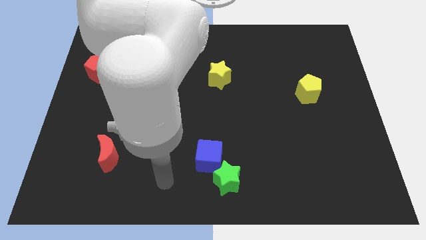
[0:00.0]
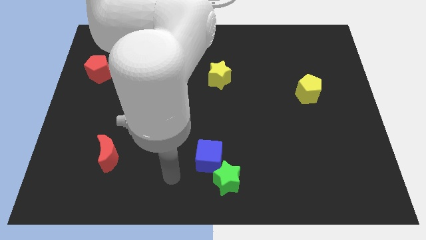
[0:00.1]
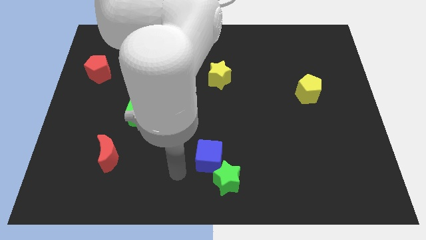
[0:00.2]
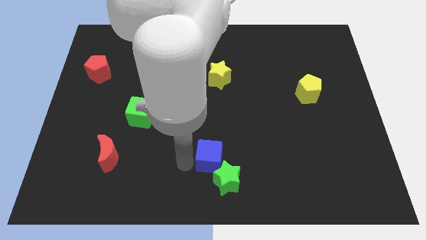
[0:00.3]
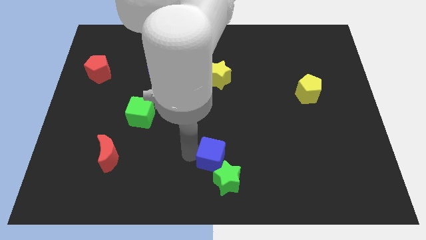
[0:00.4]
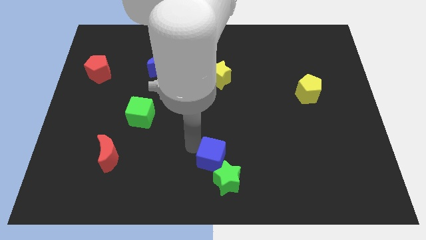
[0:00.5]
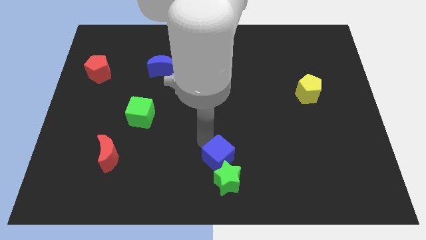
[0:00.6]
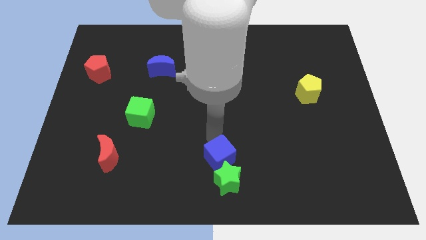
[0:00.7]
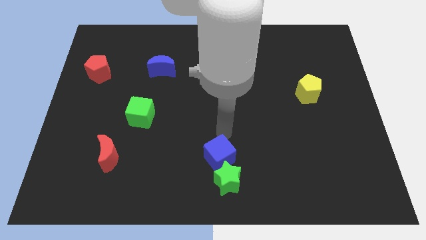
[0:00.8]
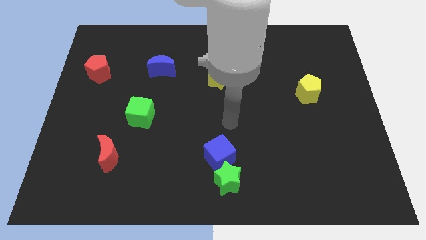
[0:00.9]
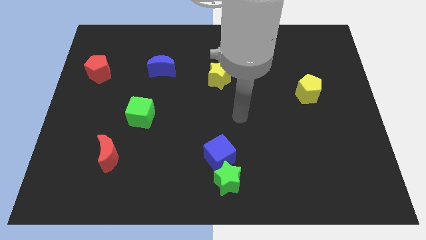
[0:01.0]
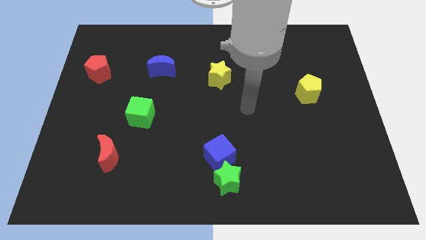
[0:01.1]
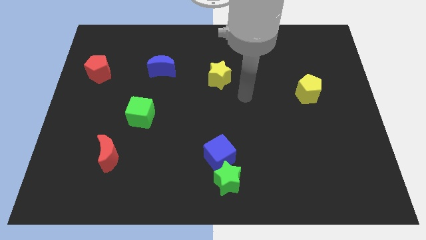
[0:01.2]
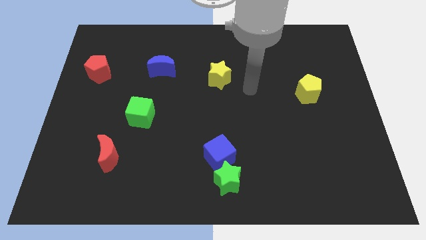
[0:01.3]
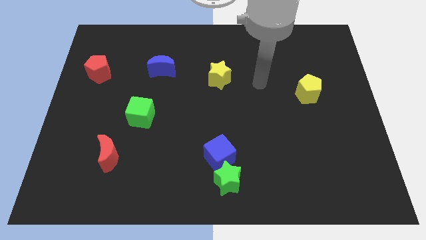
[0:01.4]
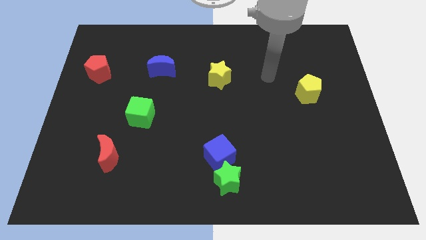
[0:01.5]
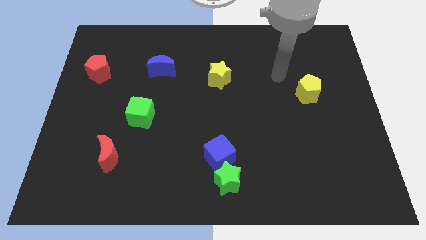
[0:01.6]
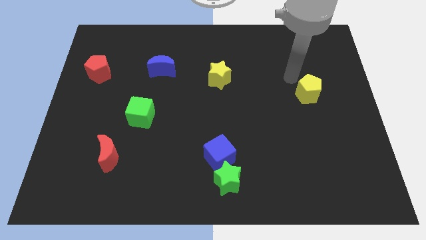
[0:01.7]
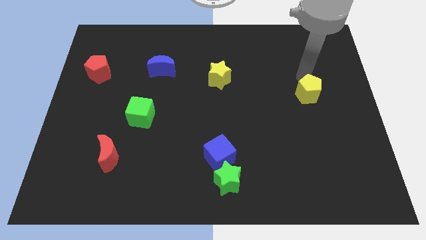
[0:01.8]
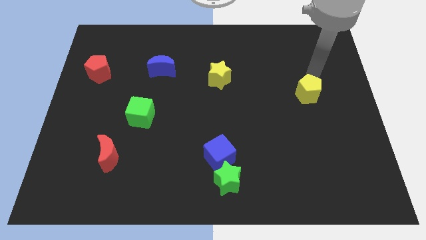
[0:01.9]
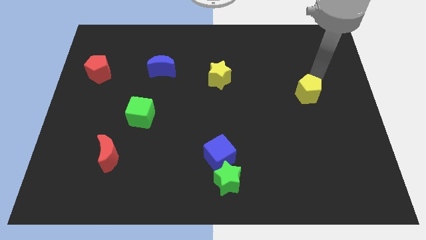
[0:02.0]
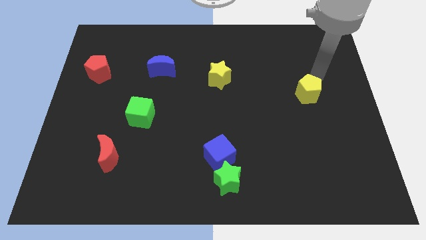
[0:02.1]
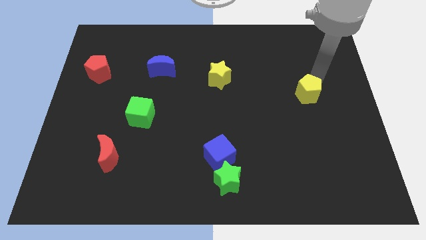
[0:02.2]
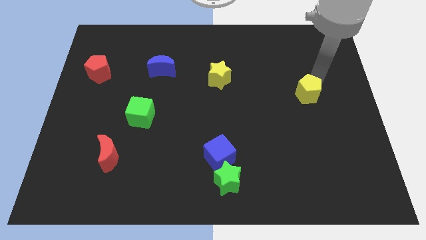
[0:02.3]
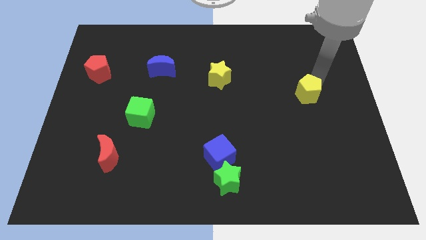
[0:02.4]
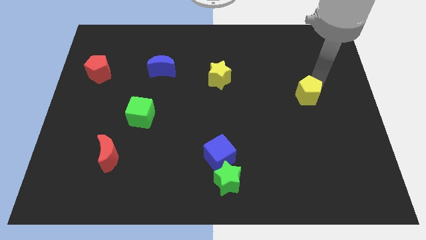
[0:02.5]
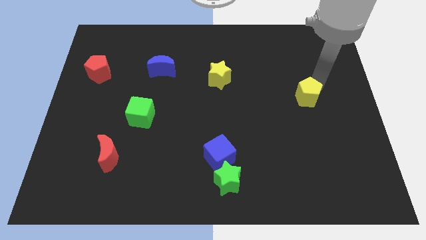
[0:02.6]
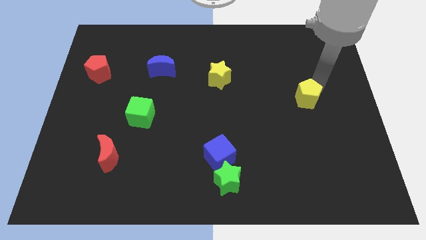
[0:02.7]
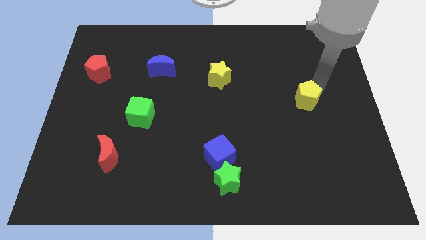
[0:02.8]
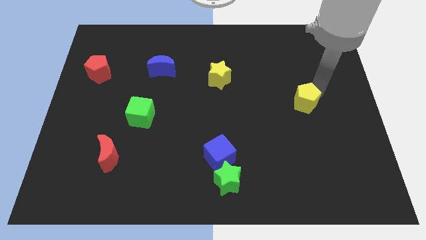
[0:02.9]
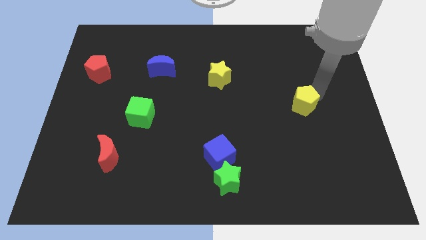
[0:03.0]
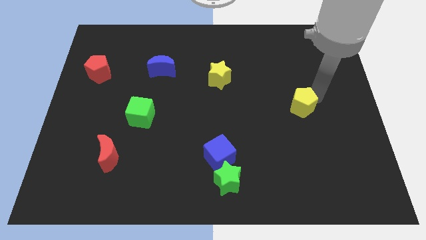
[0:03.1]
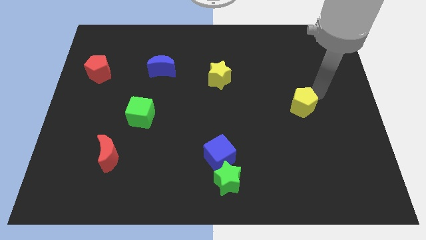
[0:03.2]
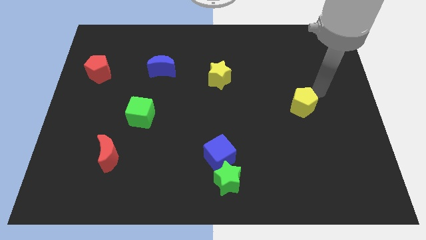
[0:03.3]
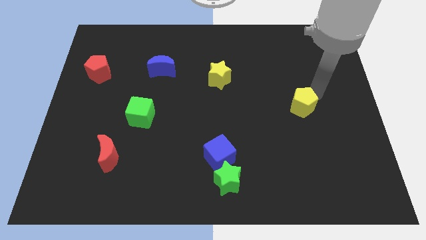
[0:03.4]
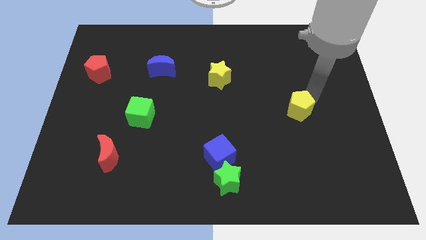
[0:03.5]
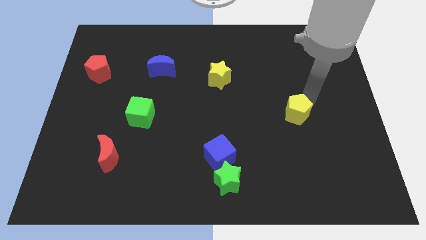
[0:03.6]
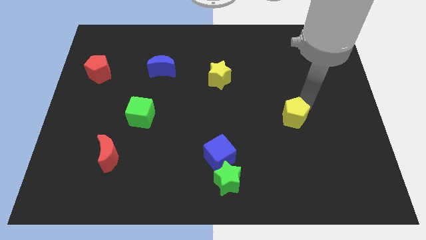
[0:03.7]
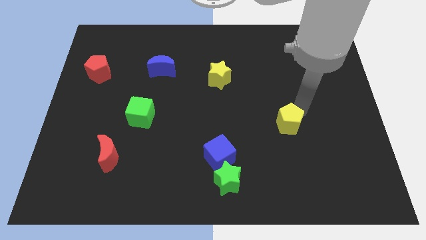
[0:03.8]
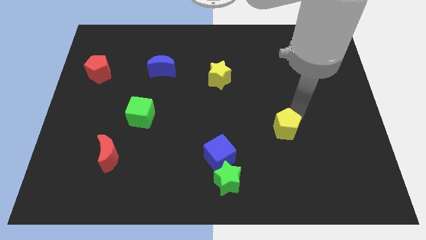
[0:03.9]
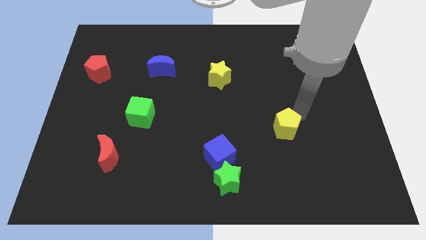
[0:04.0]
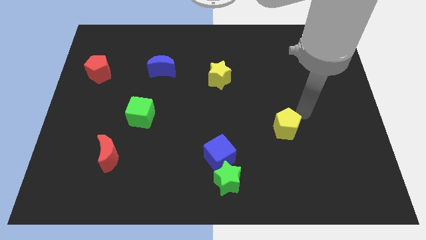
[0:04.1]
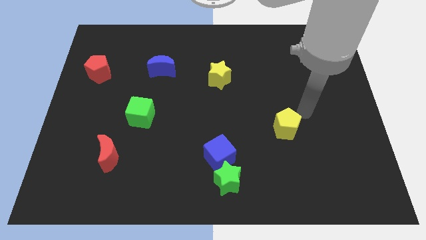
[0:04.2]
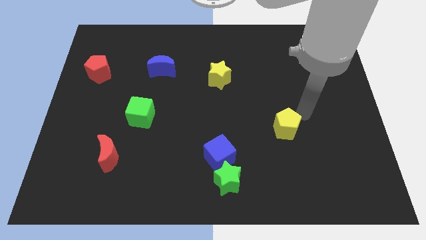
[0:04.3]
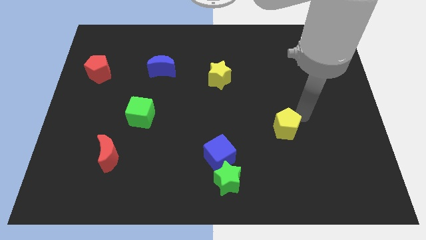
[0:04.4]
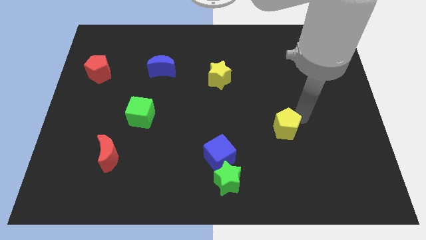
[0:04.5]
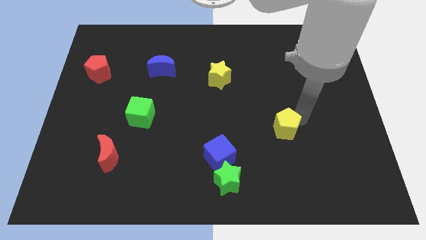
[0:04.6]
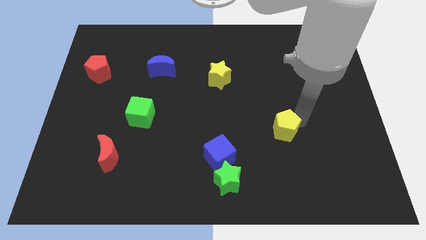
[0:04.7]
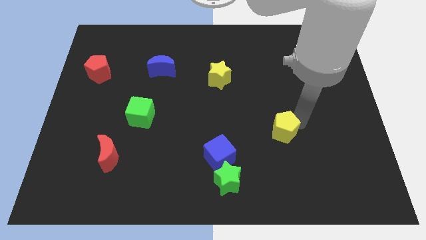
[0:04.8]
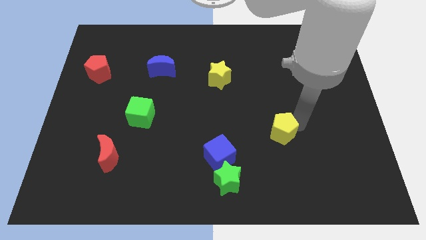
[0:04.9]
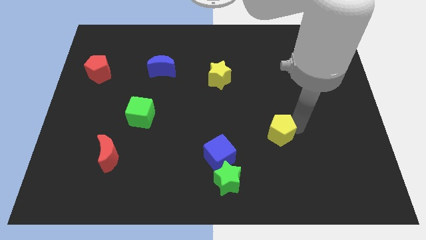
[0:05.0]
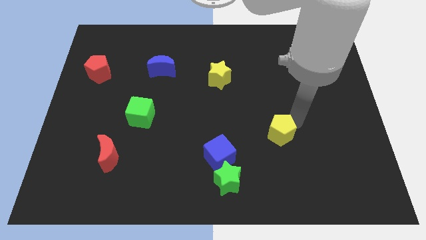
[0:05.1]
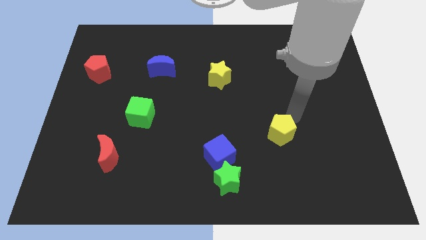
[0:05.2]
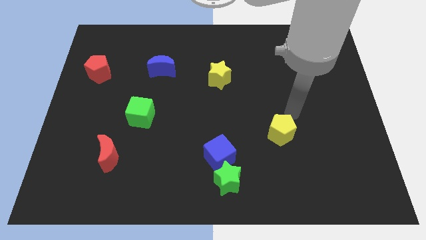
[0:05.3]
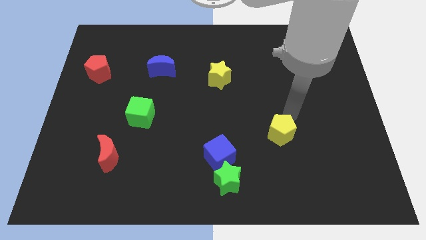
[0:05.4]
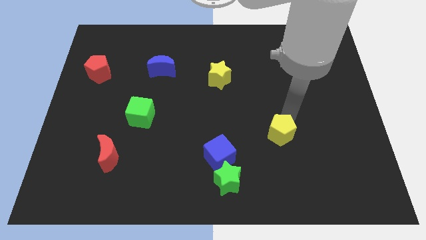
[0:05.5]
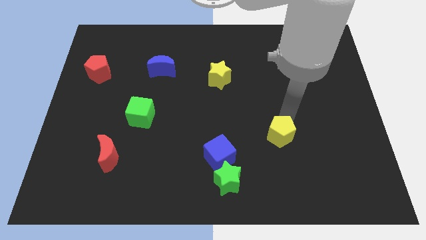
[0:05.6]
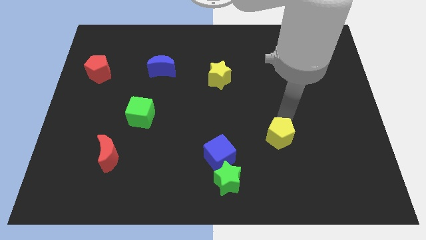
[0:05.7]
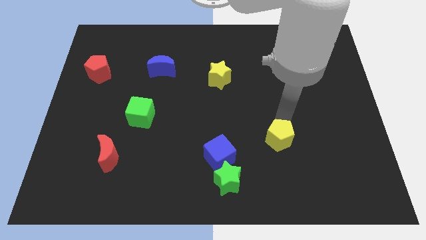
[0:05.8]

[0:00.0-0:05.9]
push the yellow pentagon to the right of the blue cube

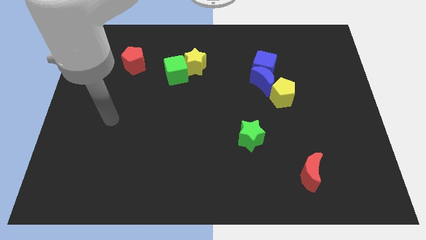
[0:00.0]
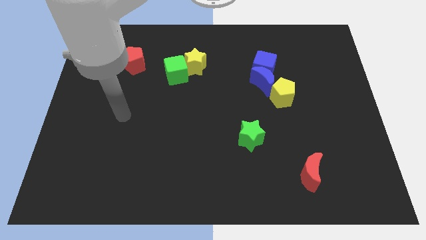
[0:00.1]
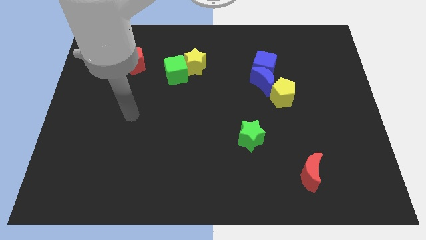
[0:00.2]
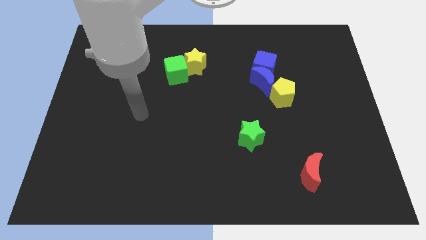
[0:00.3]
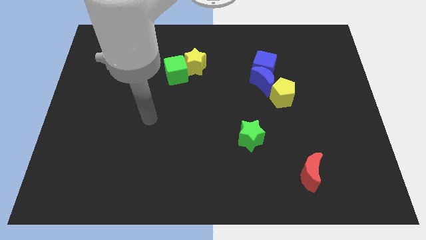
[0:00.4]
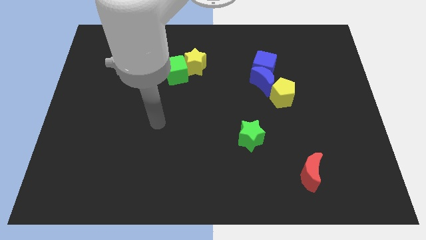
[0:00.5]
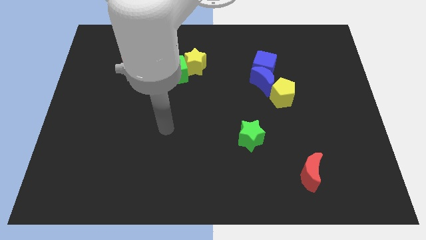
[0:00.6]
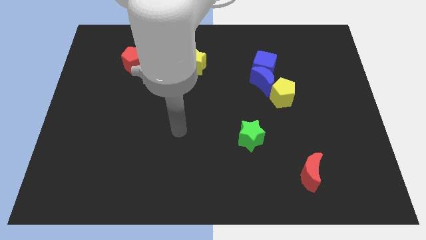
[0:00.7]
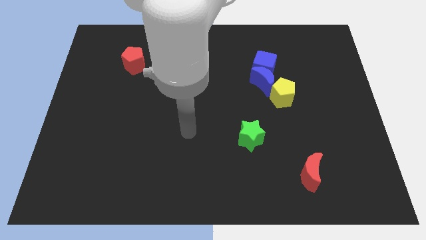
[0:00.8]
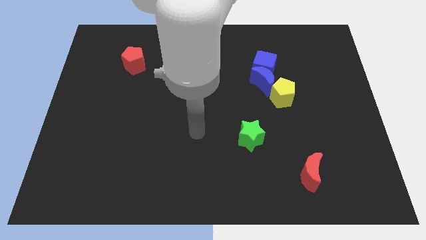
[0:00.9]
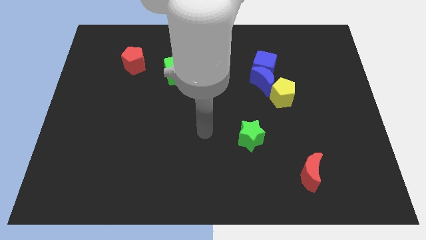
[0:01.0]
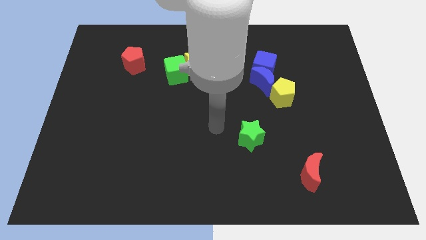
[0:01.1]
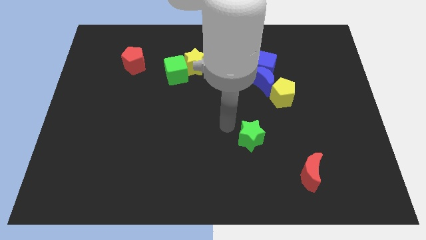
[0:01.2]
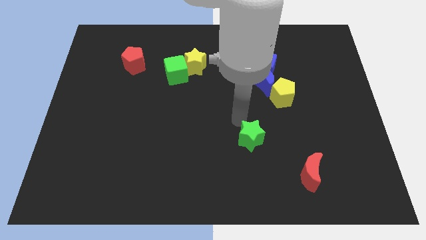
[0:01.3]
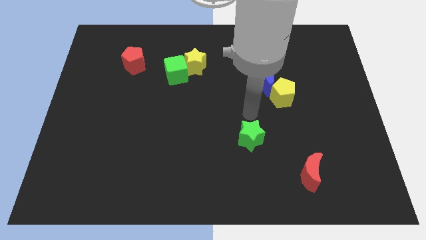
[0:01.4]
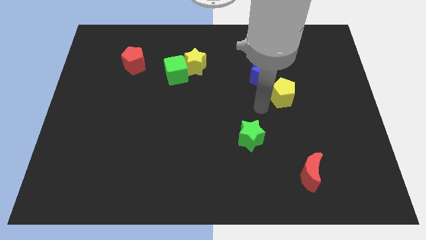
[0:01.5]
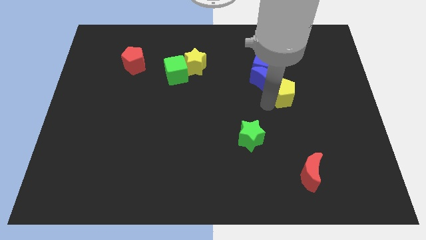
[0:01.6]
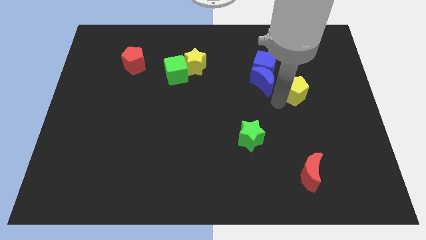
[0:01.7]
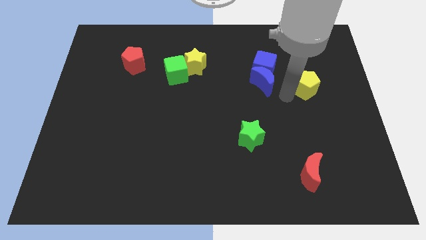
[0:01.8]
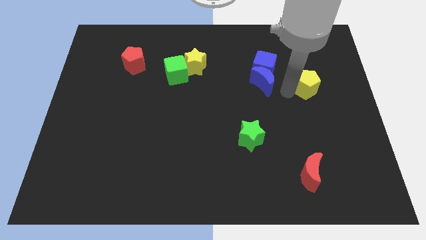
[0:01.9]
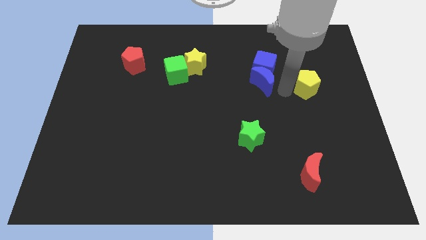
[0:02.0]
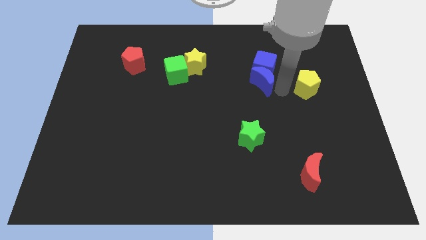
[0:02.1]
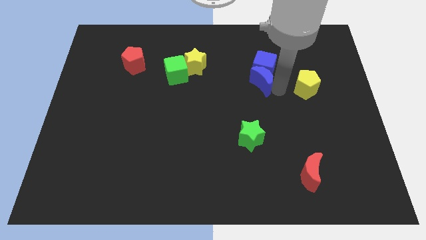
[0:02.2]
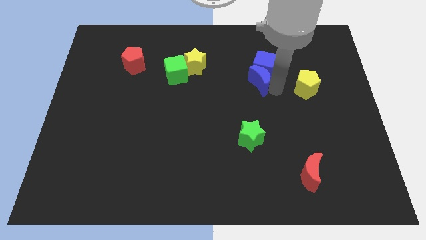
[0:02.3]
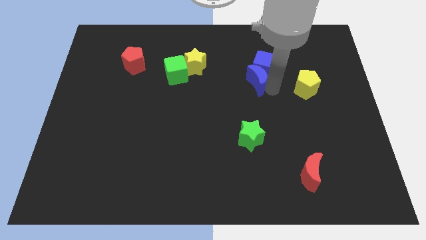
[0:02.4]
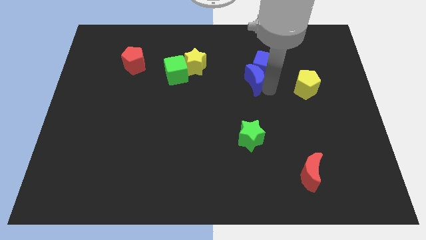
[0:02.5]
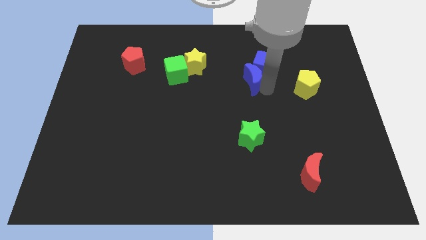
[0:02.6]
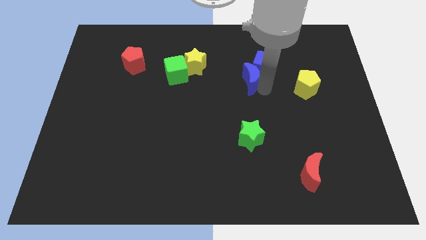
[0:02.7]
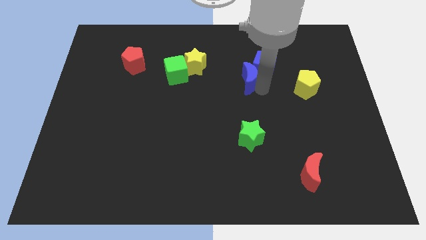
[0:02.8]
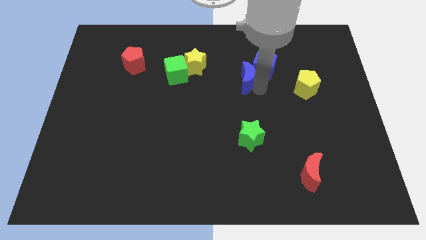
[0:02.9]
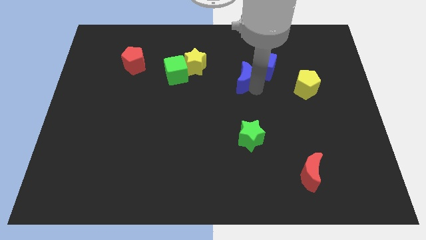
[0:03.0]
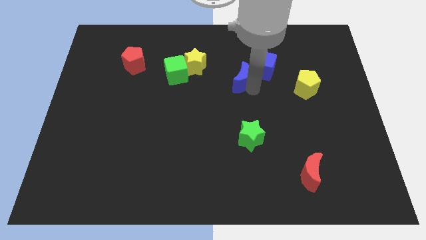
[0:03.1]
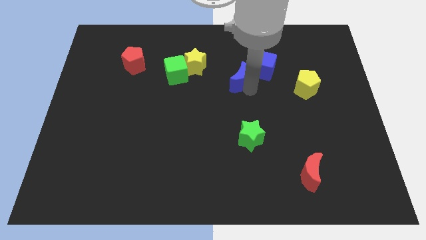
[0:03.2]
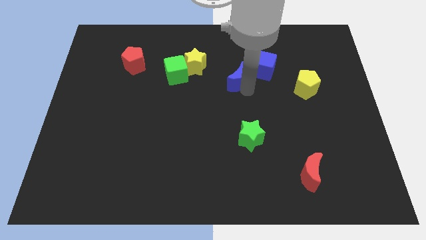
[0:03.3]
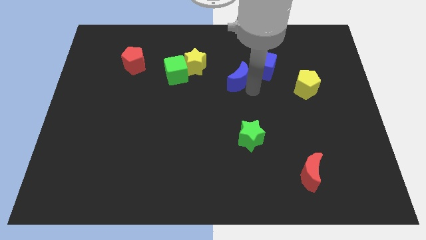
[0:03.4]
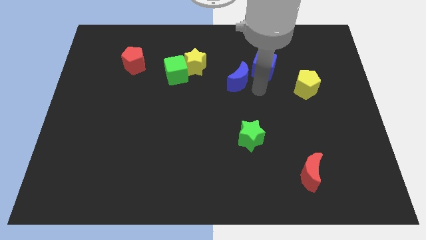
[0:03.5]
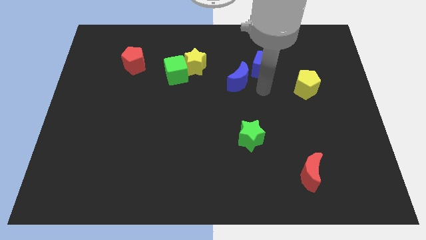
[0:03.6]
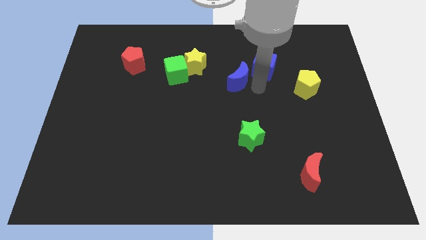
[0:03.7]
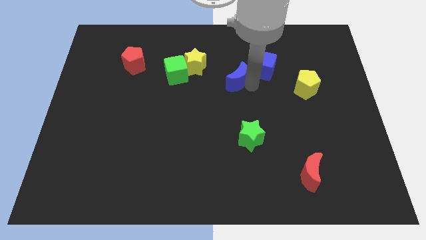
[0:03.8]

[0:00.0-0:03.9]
push the blue moon to the right of the green cube
